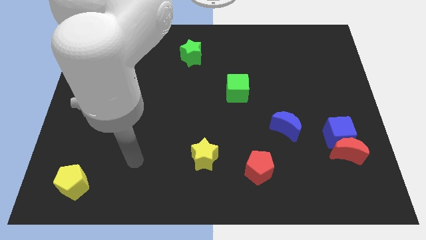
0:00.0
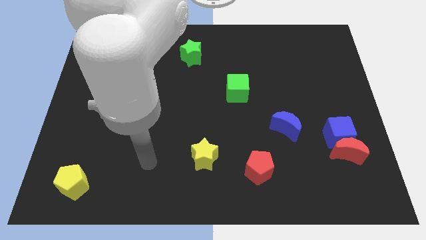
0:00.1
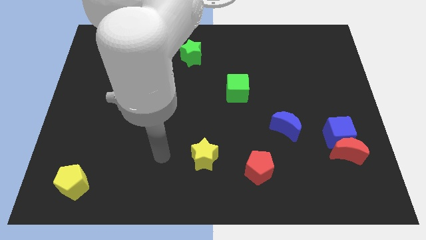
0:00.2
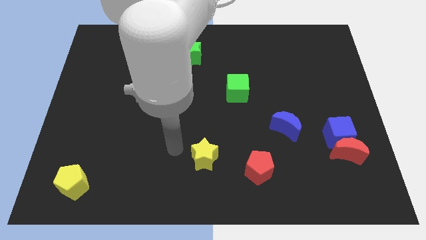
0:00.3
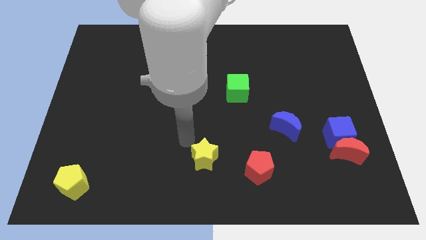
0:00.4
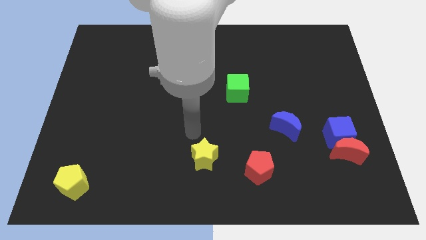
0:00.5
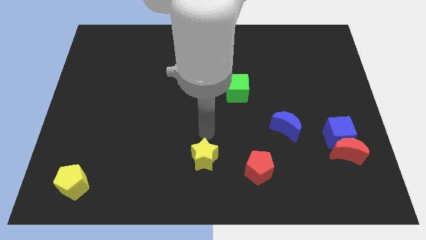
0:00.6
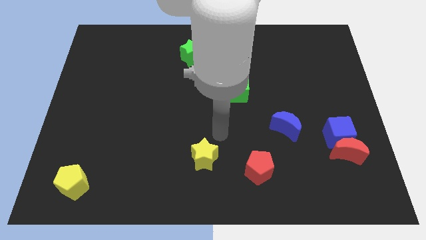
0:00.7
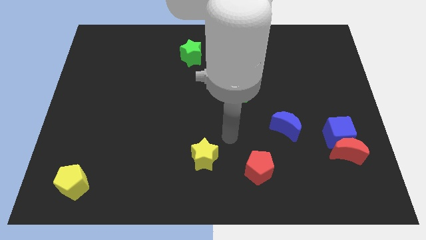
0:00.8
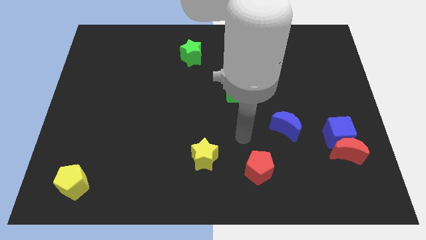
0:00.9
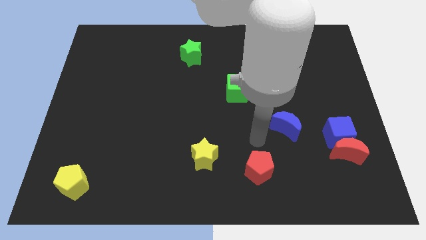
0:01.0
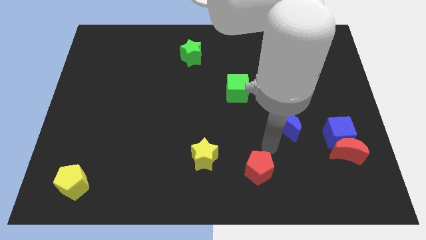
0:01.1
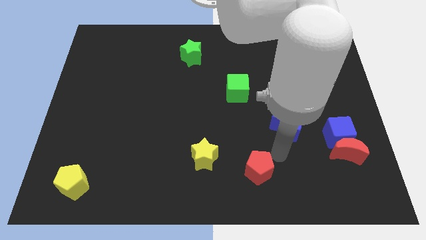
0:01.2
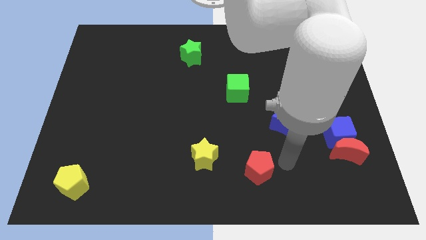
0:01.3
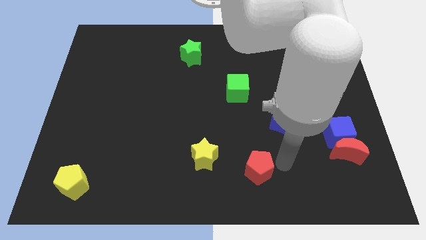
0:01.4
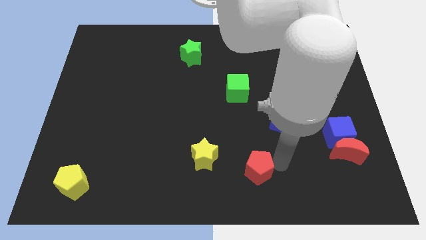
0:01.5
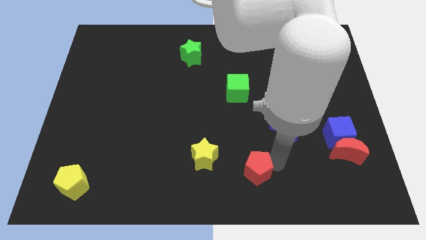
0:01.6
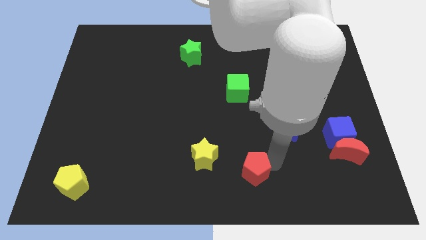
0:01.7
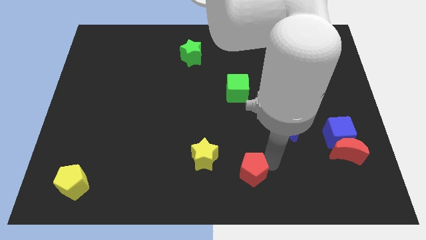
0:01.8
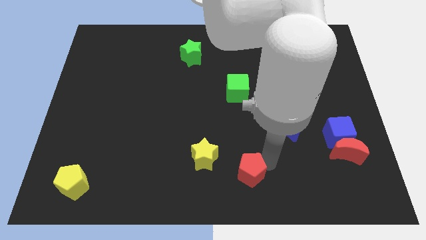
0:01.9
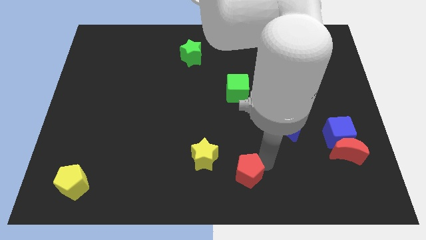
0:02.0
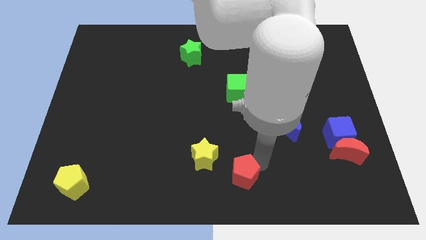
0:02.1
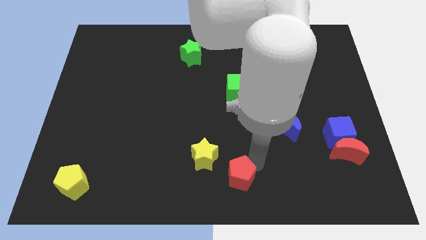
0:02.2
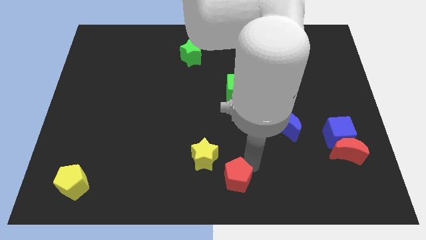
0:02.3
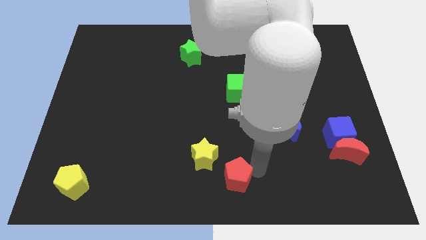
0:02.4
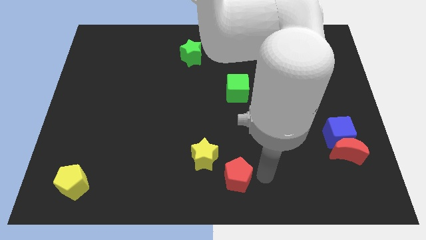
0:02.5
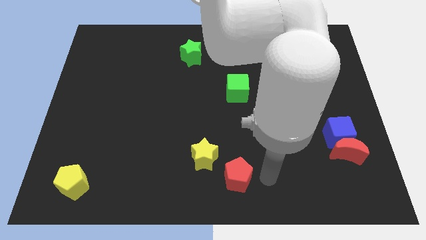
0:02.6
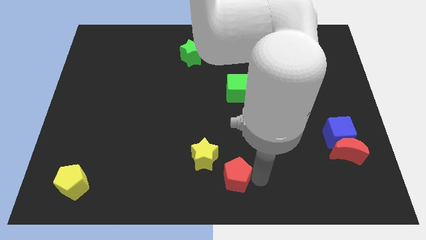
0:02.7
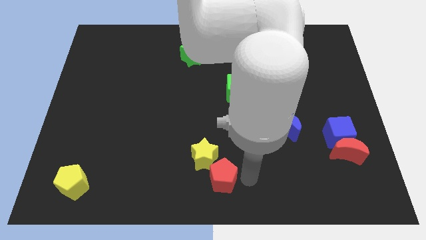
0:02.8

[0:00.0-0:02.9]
slide the red pentagon to the left slightly

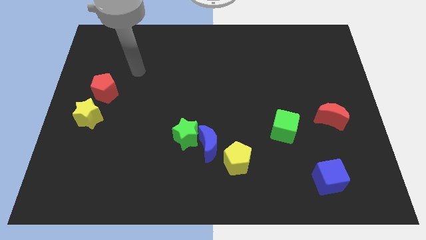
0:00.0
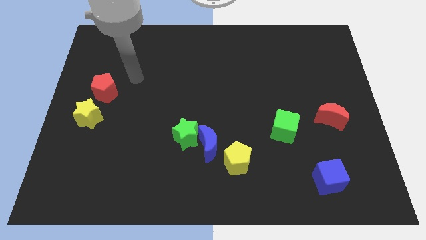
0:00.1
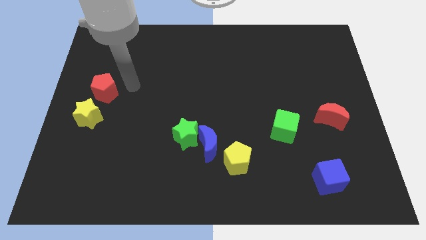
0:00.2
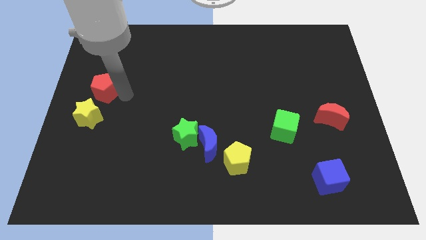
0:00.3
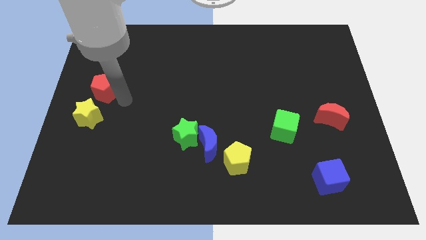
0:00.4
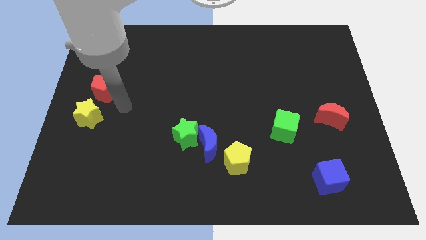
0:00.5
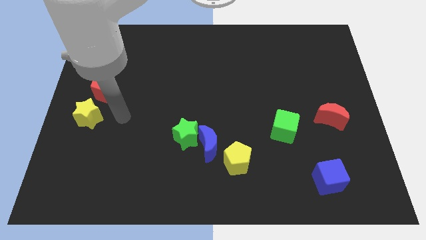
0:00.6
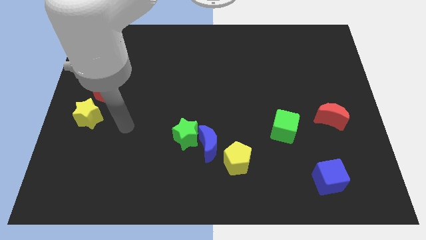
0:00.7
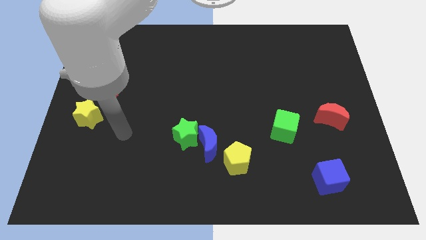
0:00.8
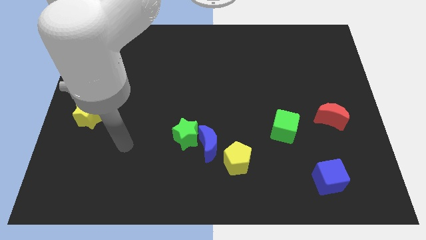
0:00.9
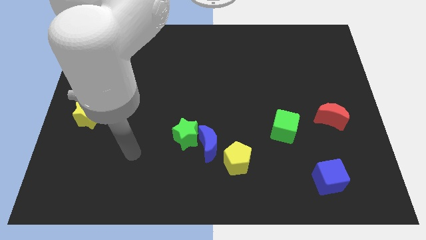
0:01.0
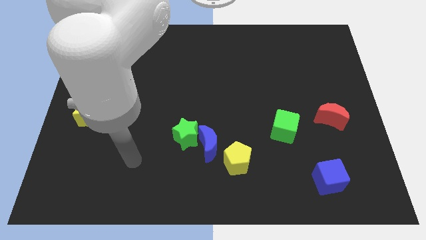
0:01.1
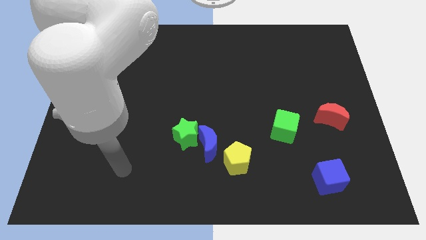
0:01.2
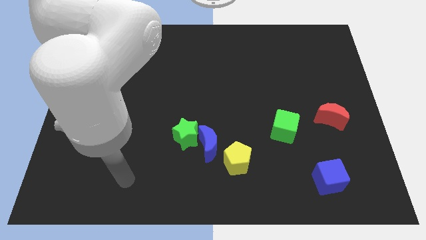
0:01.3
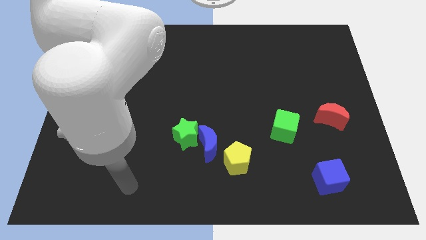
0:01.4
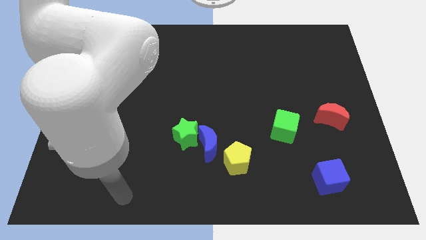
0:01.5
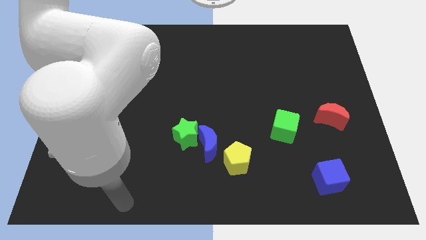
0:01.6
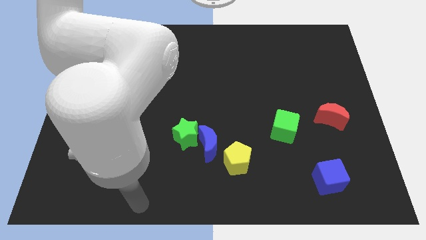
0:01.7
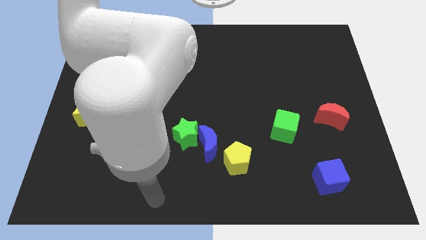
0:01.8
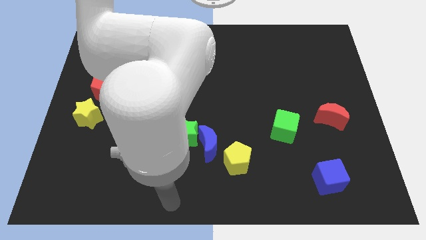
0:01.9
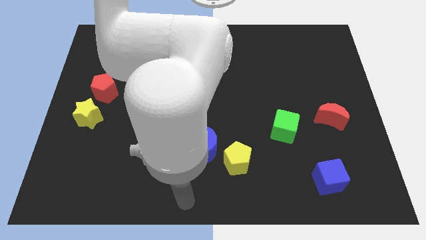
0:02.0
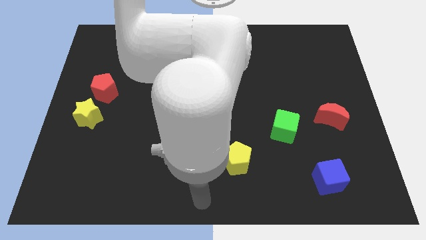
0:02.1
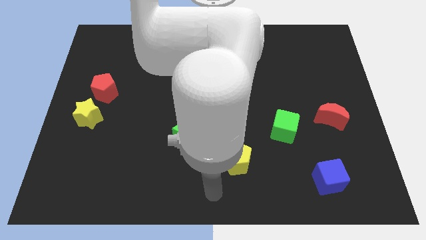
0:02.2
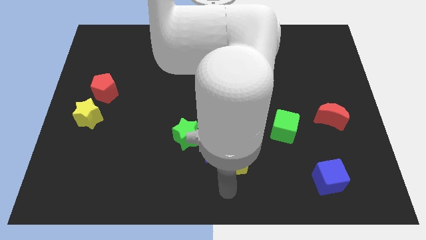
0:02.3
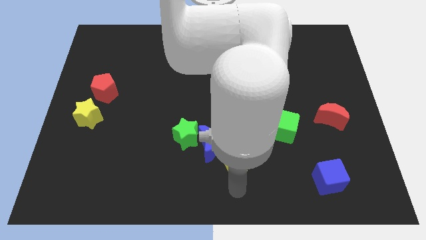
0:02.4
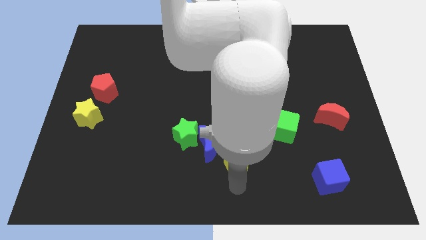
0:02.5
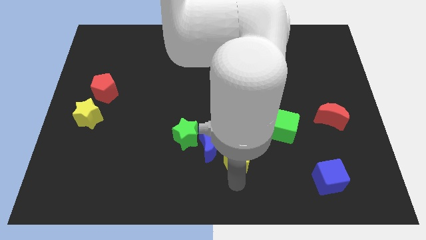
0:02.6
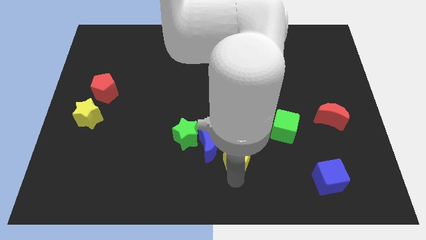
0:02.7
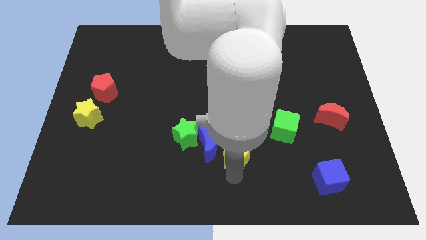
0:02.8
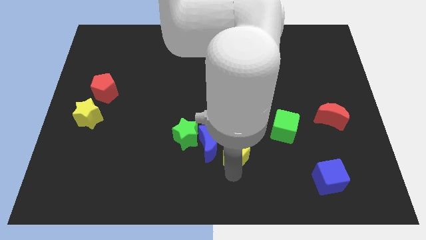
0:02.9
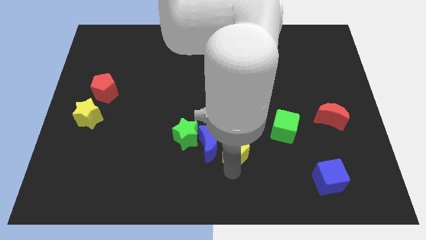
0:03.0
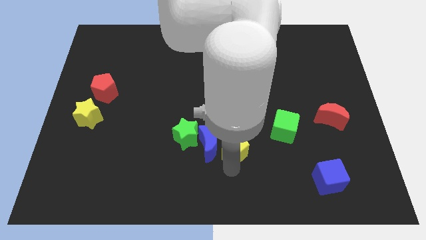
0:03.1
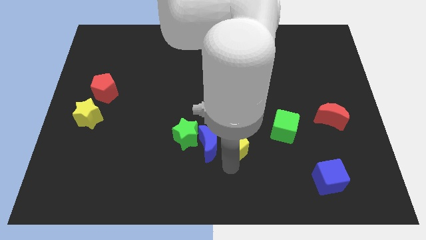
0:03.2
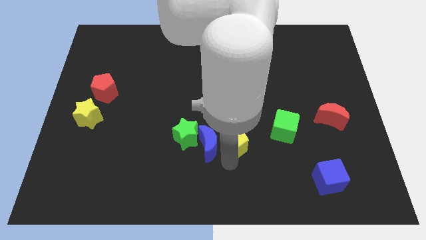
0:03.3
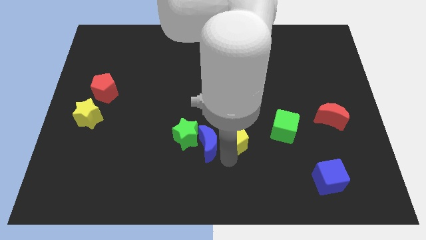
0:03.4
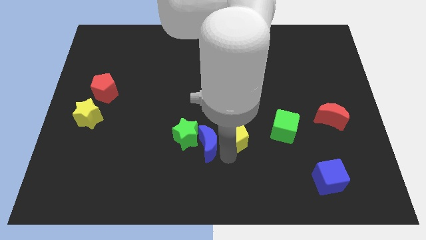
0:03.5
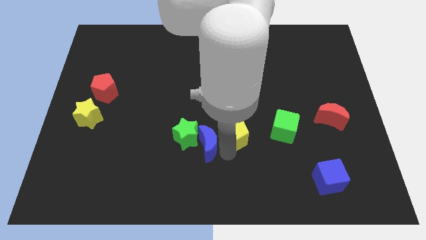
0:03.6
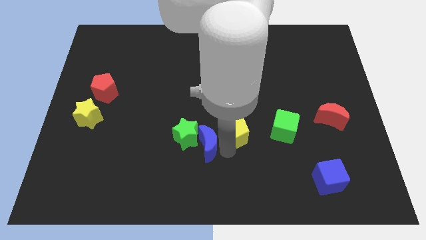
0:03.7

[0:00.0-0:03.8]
push the yellow pentagon up a little bit

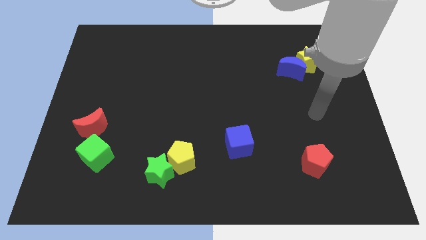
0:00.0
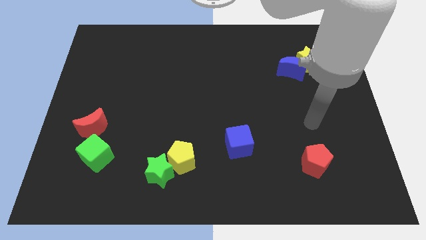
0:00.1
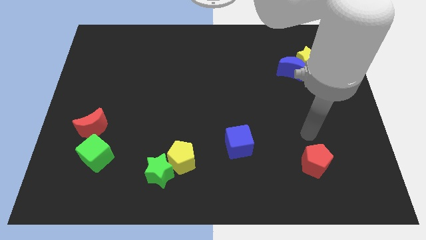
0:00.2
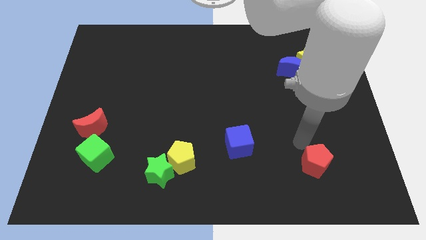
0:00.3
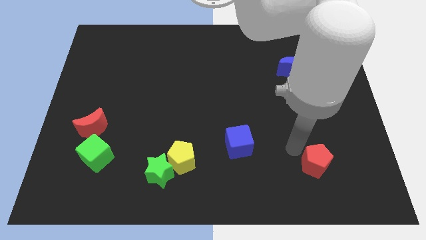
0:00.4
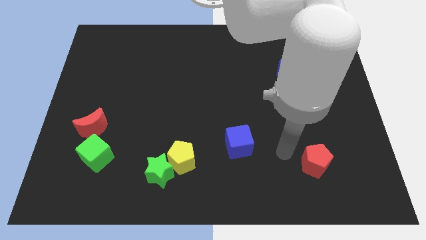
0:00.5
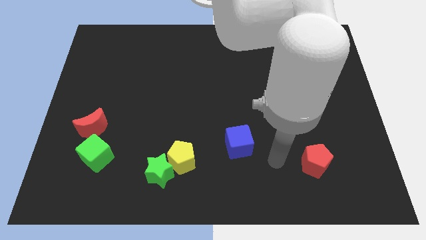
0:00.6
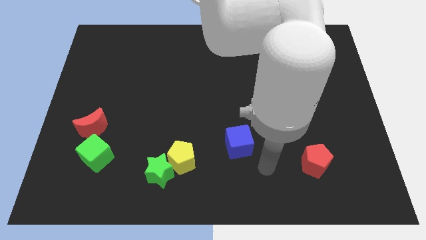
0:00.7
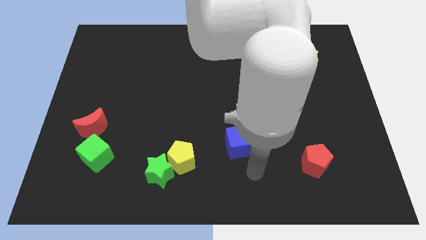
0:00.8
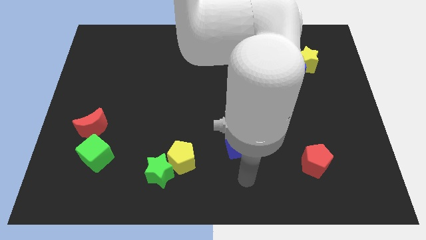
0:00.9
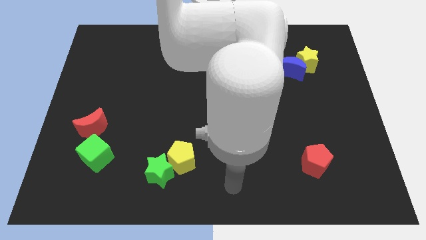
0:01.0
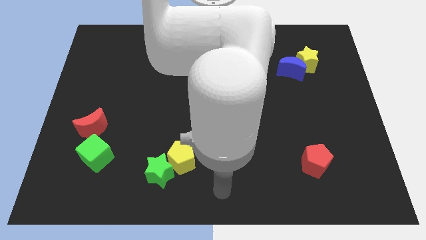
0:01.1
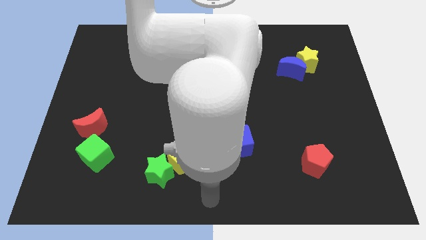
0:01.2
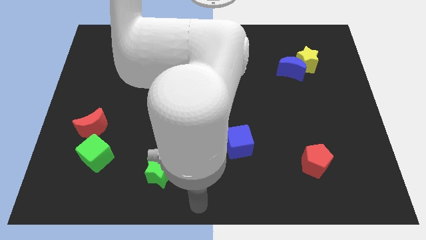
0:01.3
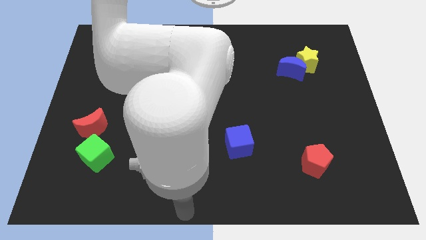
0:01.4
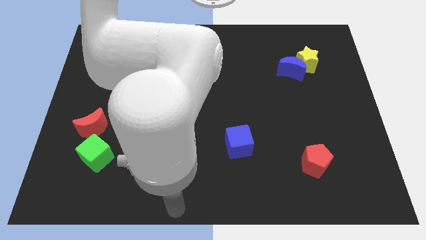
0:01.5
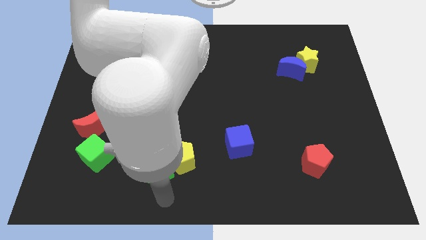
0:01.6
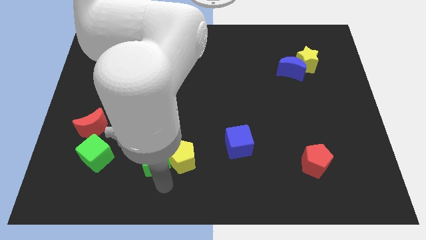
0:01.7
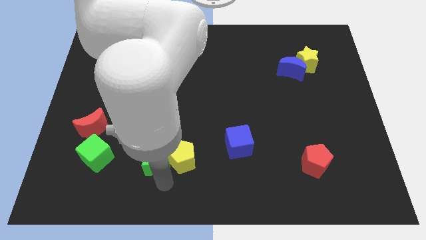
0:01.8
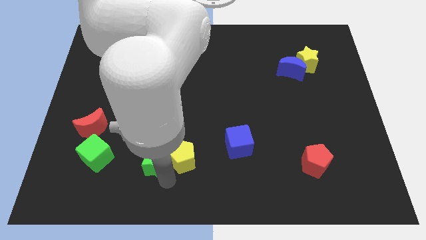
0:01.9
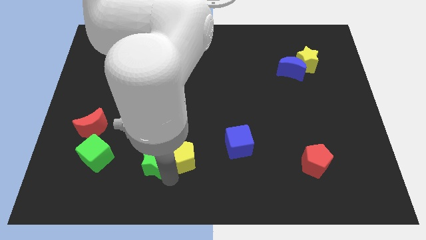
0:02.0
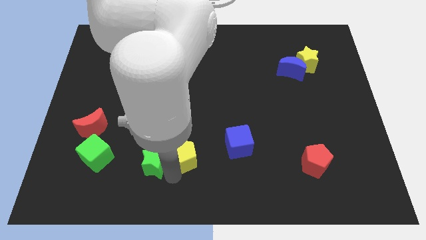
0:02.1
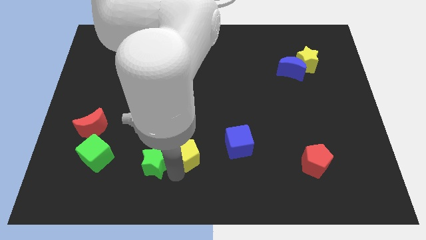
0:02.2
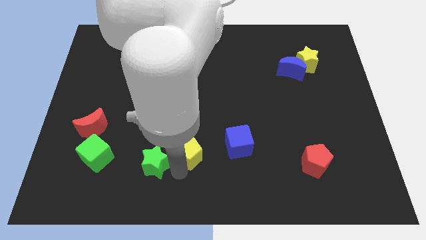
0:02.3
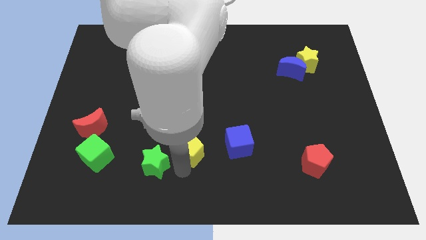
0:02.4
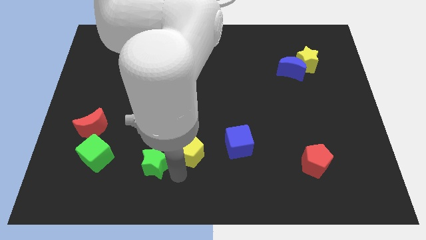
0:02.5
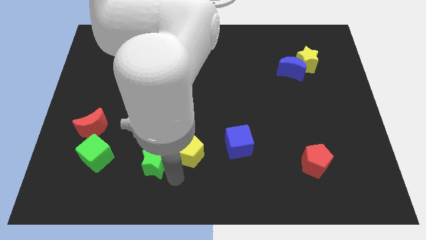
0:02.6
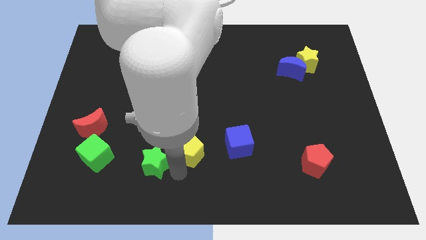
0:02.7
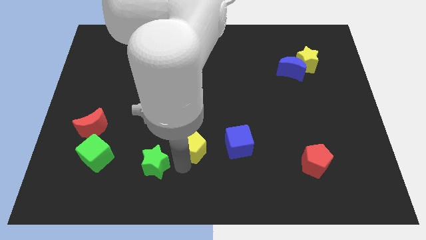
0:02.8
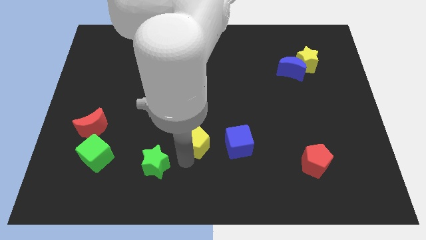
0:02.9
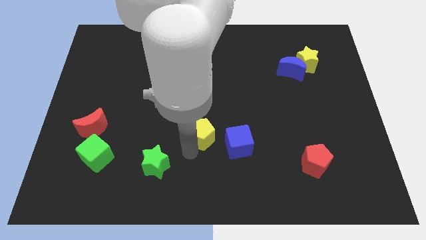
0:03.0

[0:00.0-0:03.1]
slide the yellow pentagon upwards and right a little
